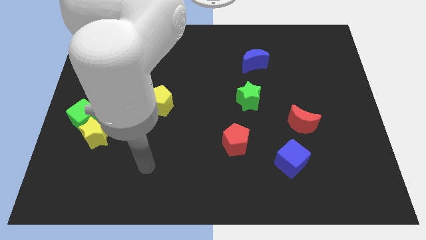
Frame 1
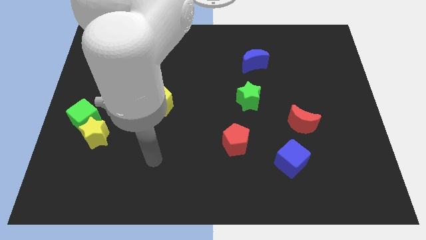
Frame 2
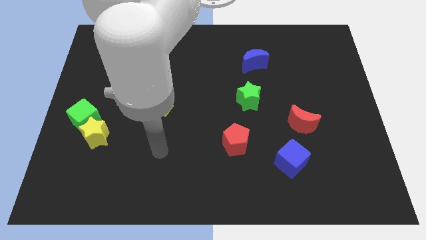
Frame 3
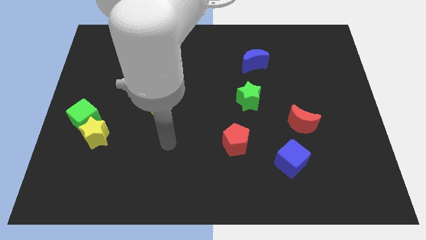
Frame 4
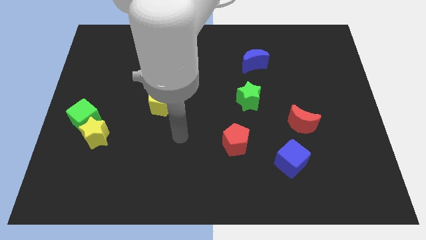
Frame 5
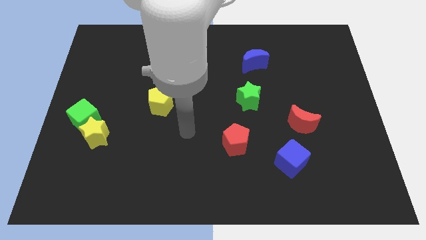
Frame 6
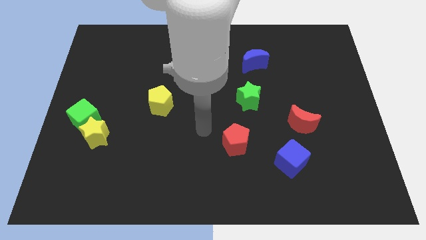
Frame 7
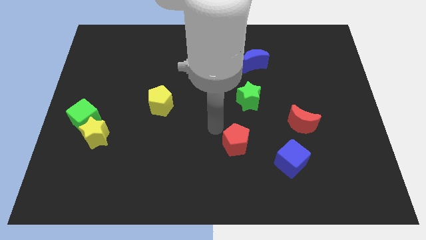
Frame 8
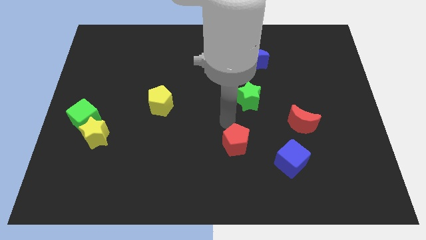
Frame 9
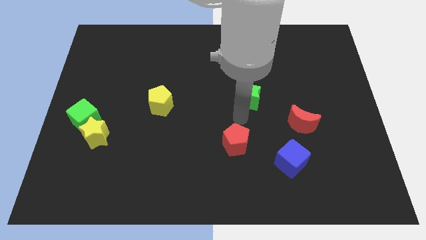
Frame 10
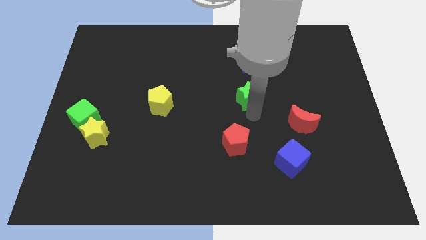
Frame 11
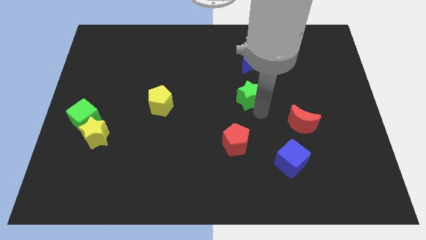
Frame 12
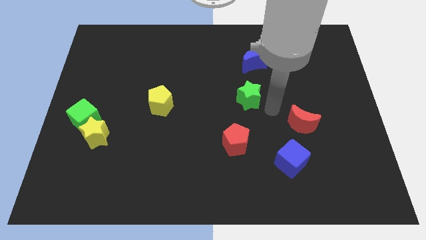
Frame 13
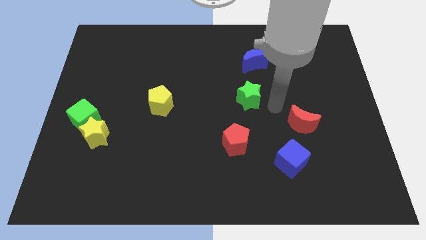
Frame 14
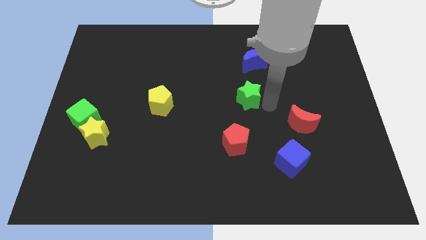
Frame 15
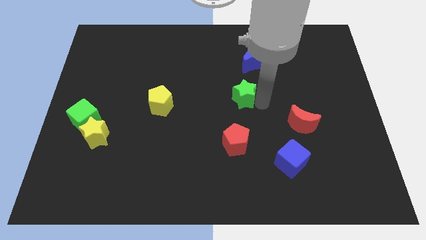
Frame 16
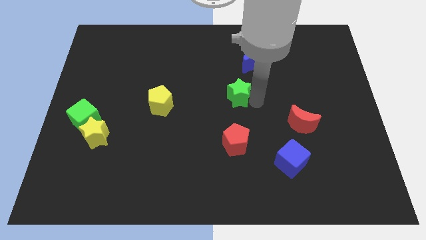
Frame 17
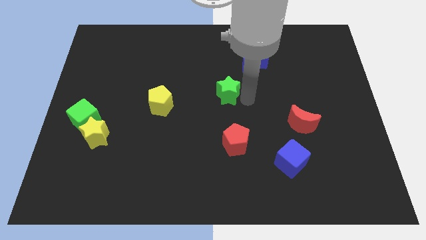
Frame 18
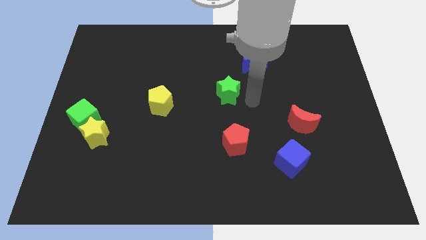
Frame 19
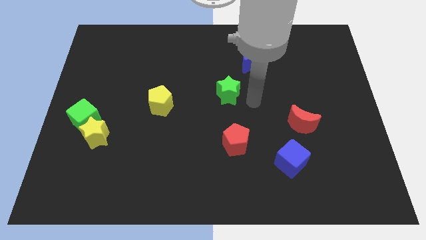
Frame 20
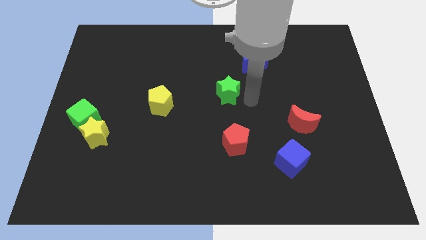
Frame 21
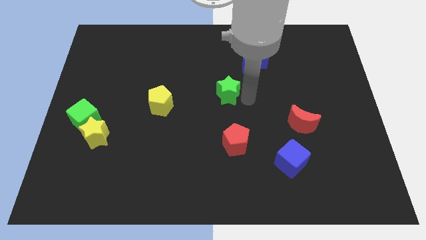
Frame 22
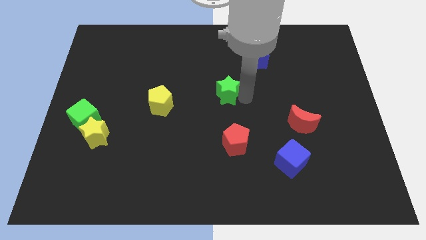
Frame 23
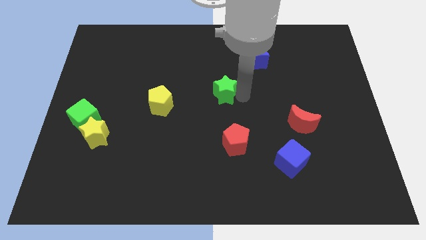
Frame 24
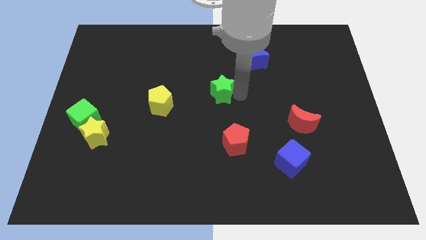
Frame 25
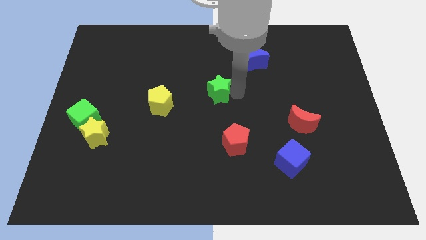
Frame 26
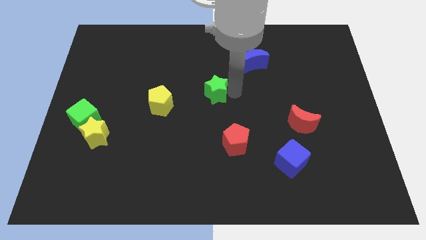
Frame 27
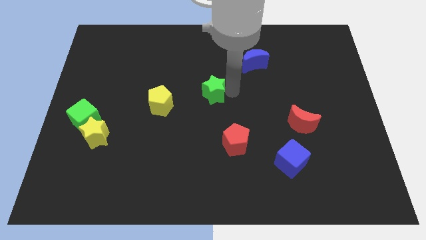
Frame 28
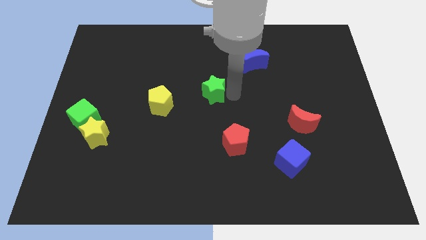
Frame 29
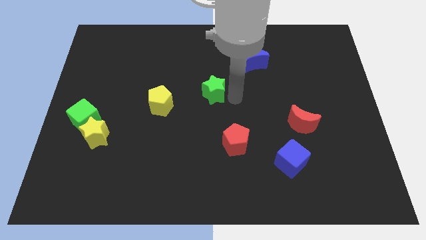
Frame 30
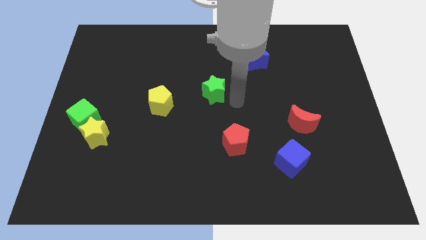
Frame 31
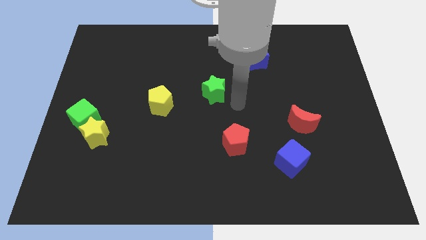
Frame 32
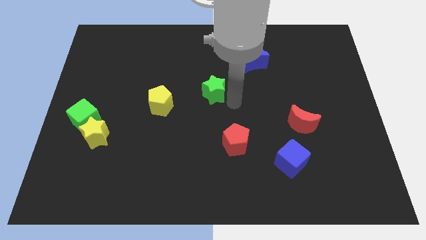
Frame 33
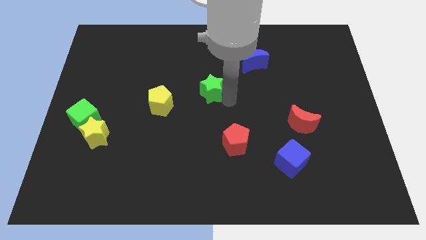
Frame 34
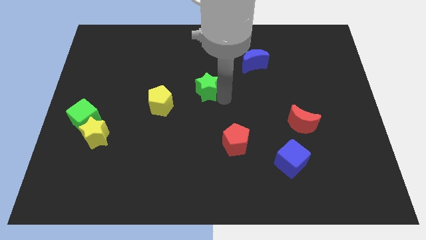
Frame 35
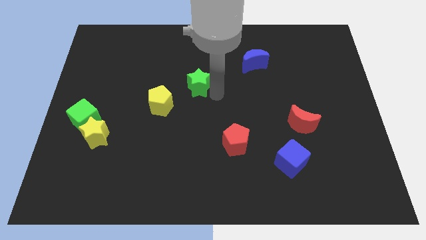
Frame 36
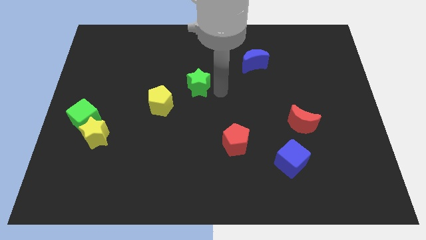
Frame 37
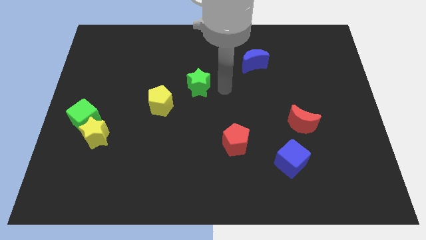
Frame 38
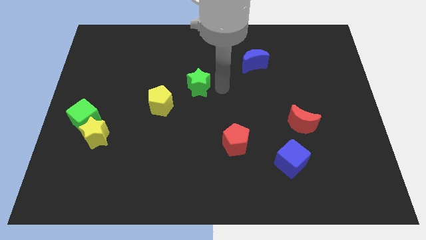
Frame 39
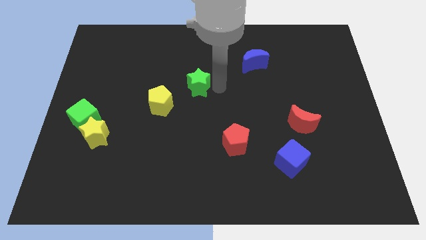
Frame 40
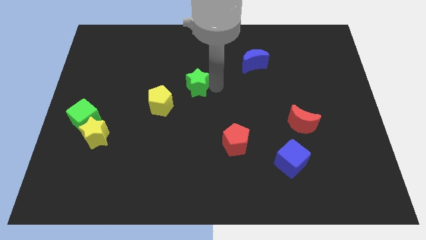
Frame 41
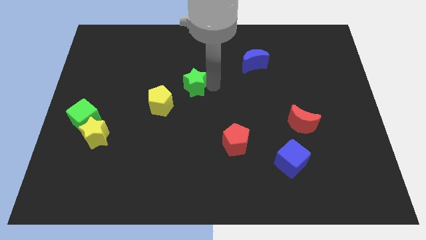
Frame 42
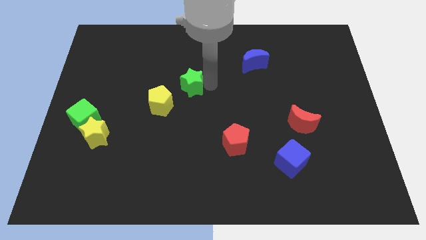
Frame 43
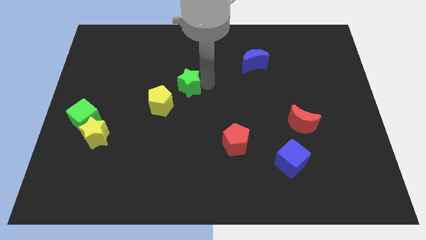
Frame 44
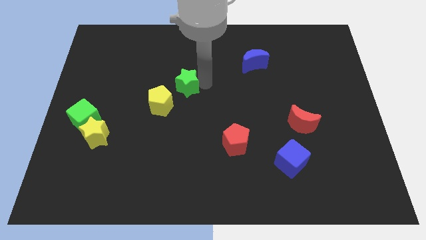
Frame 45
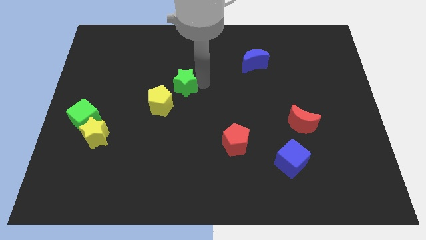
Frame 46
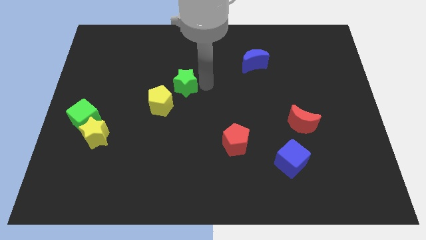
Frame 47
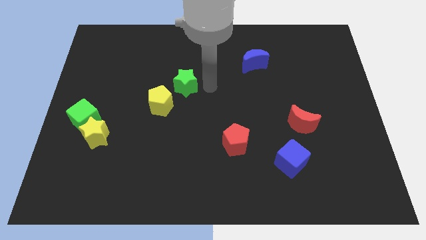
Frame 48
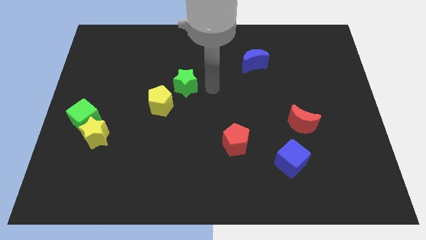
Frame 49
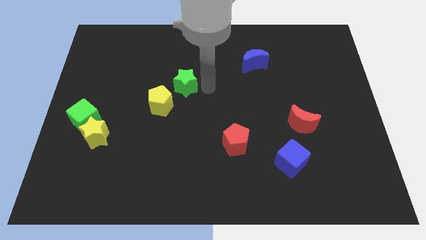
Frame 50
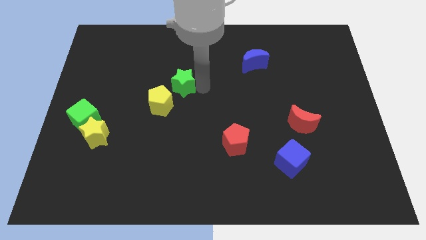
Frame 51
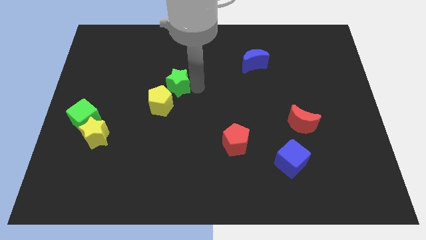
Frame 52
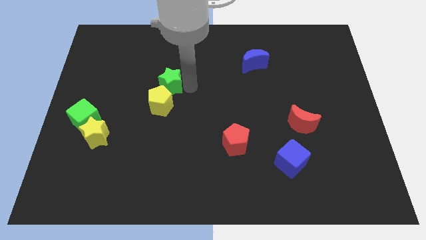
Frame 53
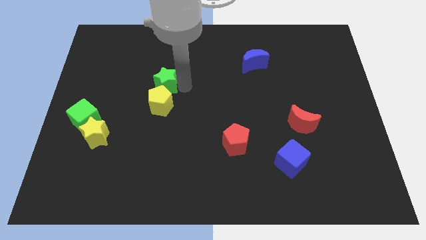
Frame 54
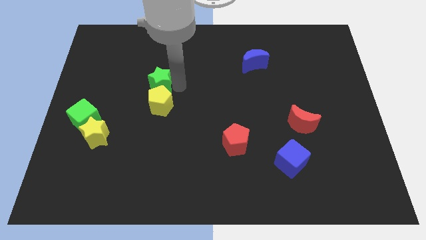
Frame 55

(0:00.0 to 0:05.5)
slide the green star to the left

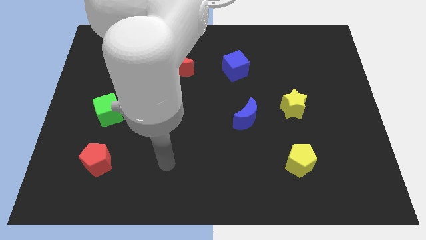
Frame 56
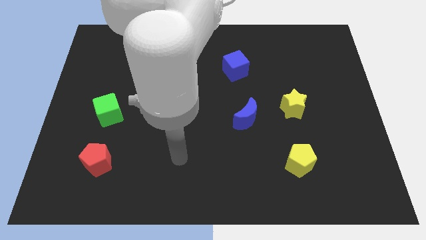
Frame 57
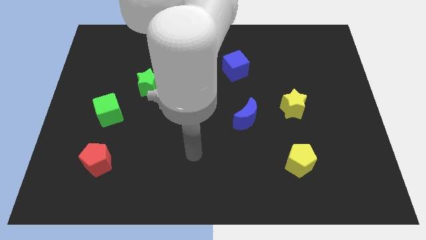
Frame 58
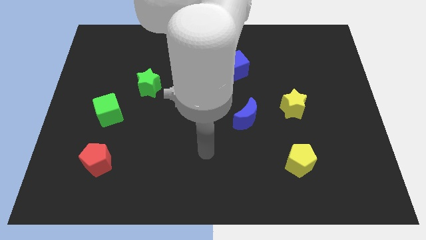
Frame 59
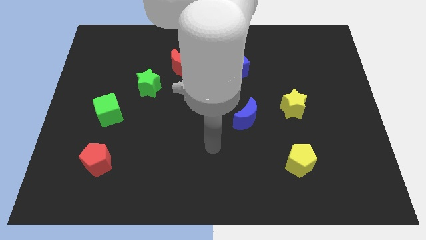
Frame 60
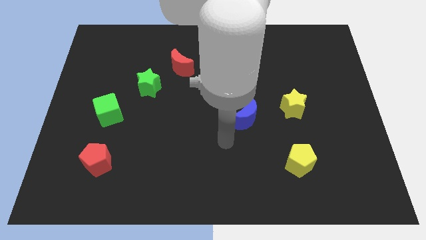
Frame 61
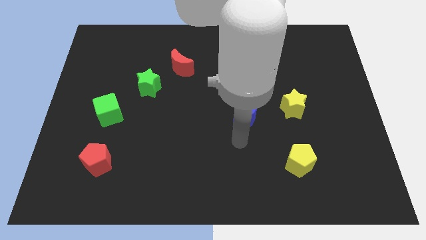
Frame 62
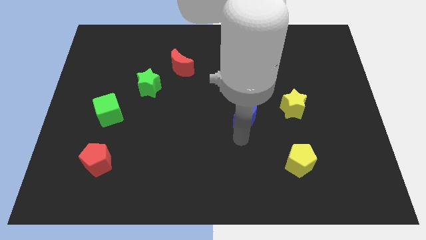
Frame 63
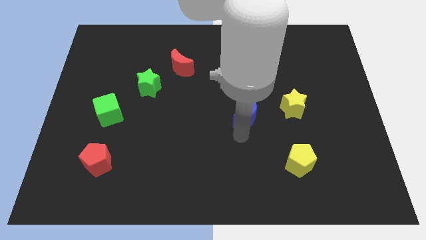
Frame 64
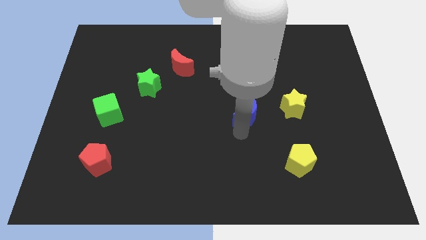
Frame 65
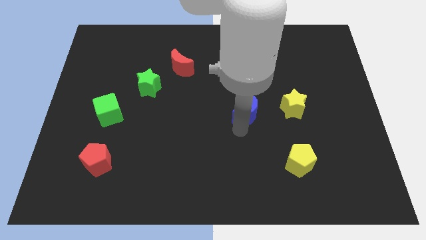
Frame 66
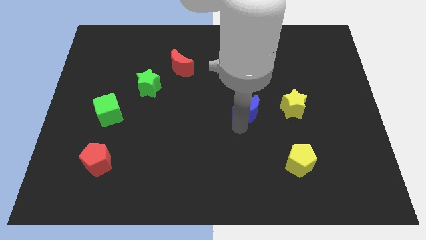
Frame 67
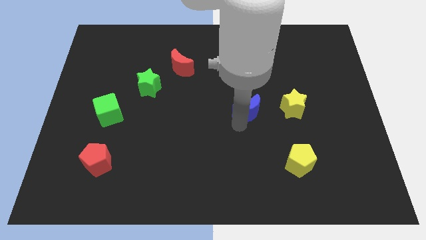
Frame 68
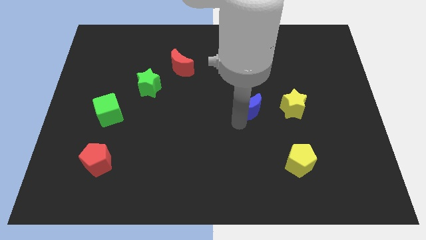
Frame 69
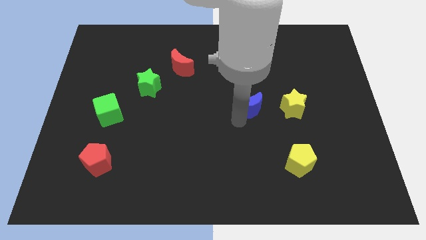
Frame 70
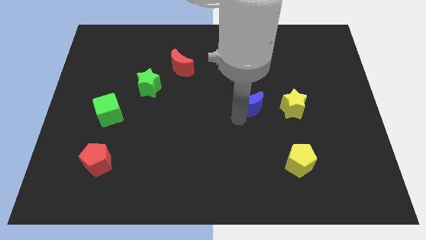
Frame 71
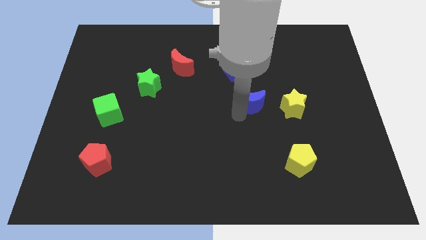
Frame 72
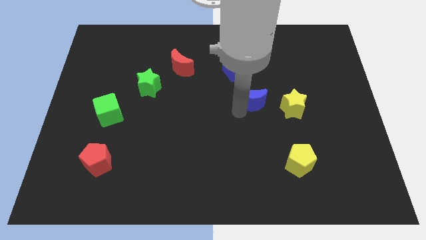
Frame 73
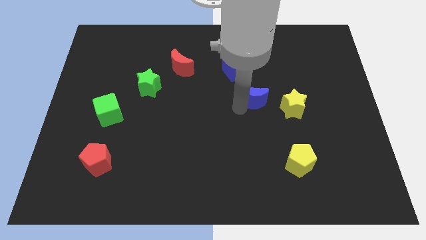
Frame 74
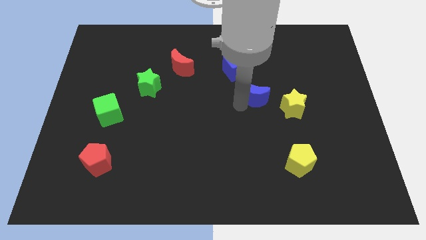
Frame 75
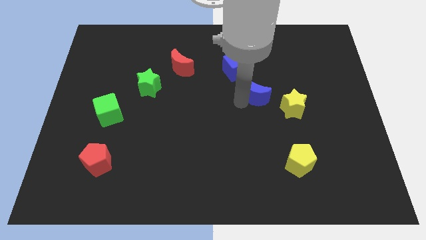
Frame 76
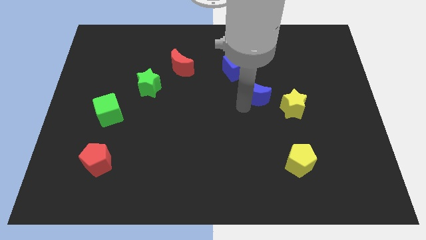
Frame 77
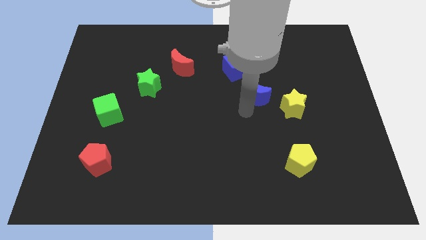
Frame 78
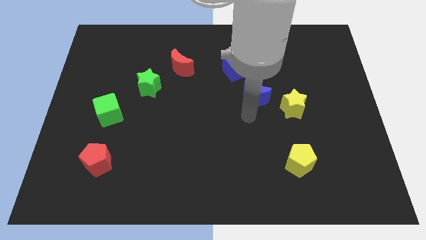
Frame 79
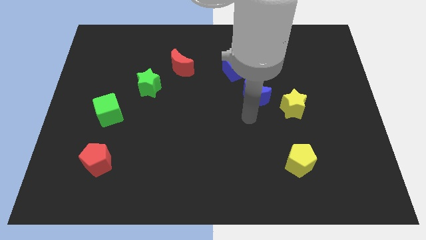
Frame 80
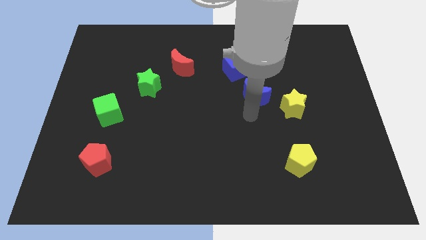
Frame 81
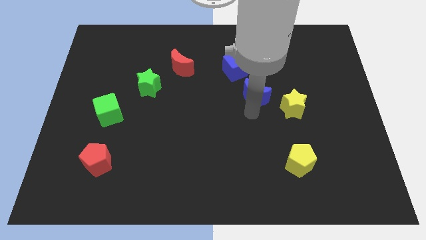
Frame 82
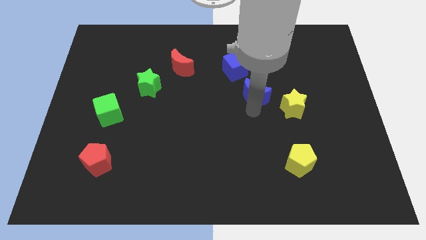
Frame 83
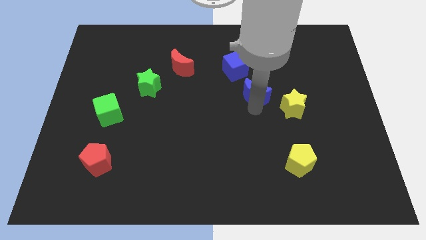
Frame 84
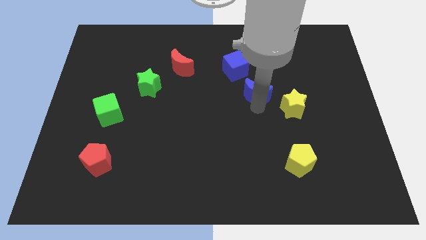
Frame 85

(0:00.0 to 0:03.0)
slightly push the blue moon upwards
